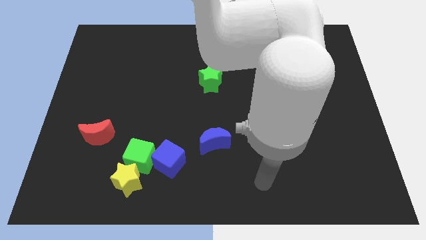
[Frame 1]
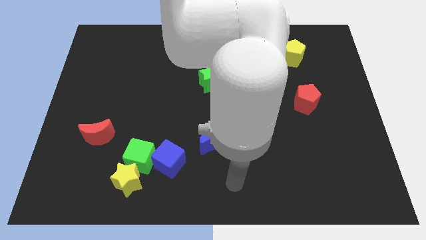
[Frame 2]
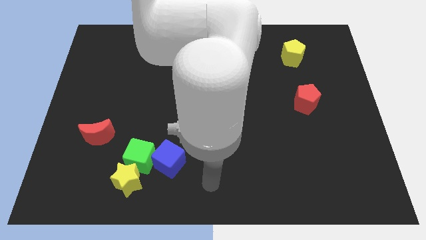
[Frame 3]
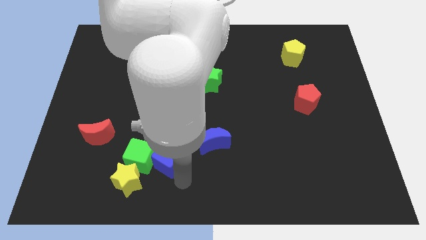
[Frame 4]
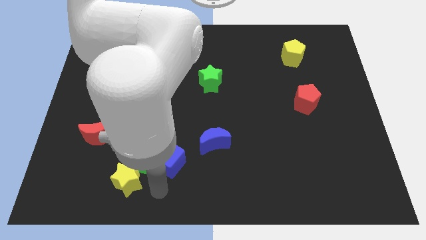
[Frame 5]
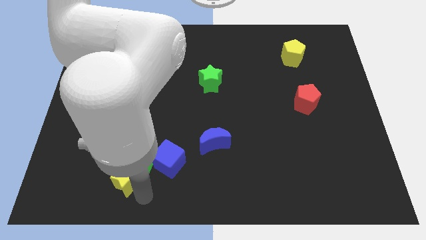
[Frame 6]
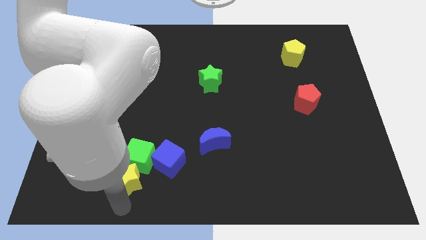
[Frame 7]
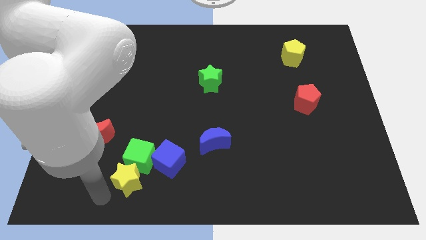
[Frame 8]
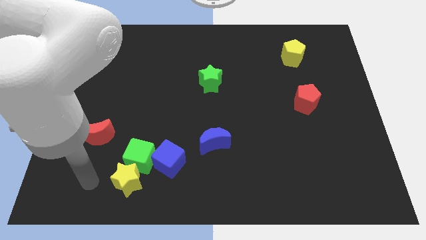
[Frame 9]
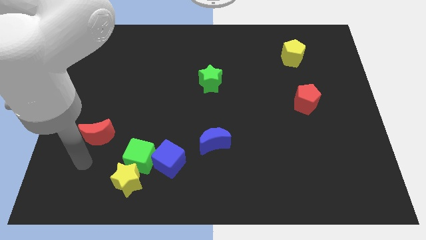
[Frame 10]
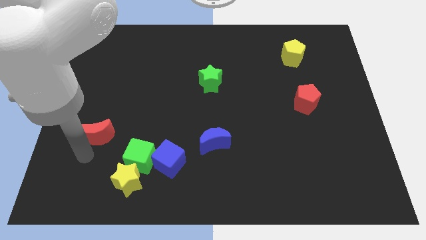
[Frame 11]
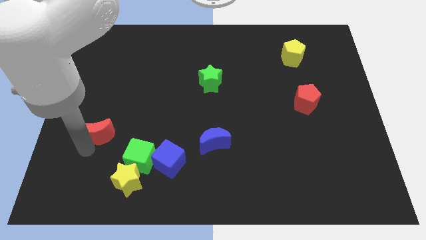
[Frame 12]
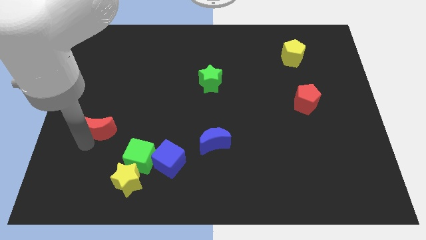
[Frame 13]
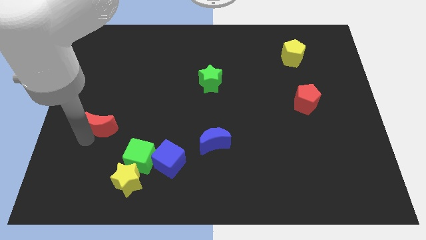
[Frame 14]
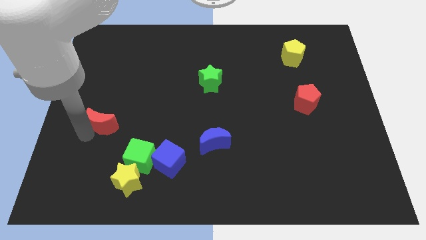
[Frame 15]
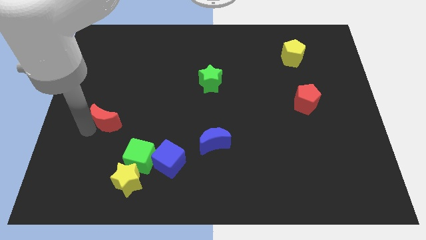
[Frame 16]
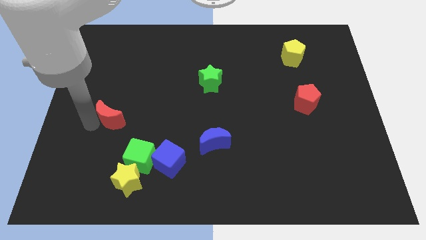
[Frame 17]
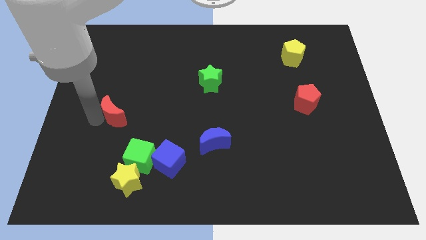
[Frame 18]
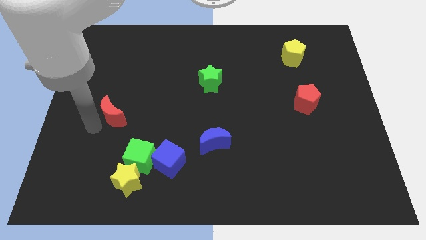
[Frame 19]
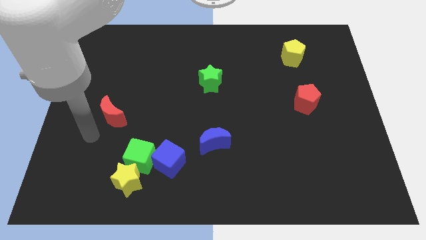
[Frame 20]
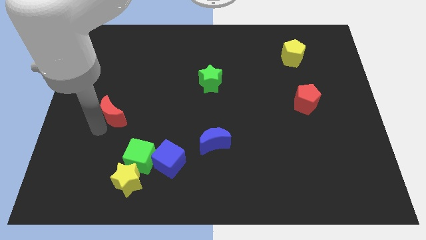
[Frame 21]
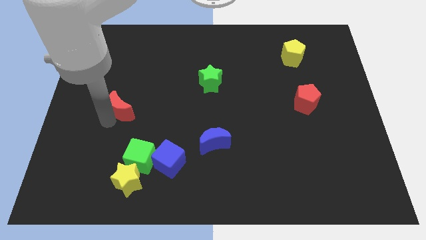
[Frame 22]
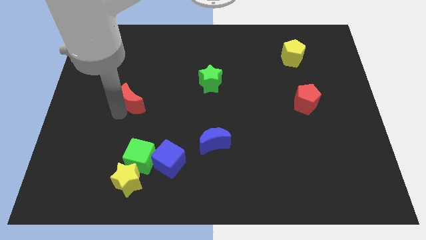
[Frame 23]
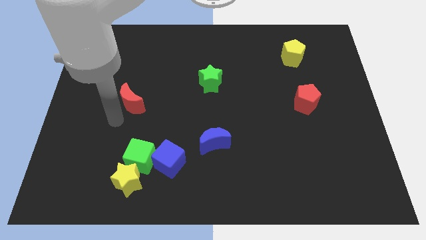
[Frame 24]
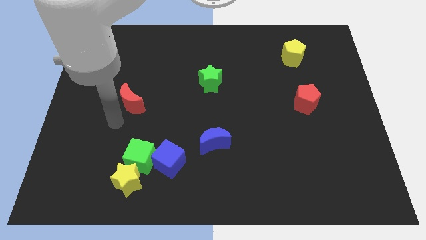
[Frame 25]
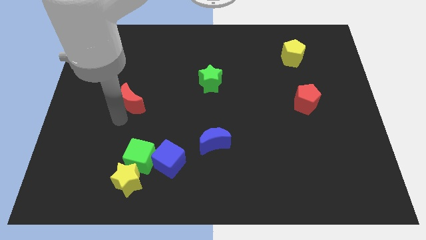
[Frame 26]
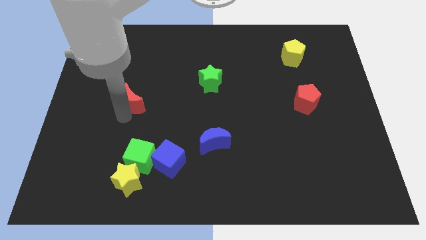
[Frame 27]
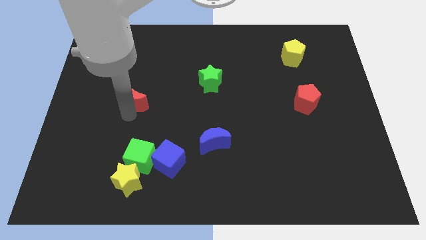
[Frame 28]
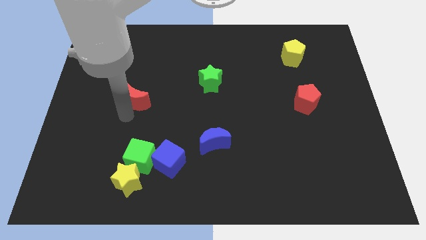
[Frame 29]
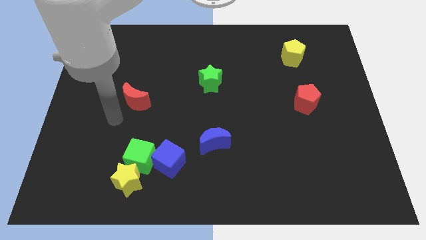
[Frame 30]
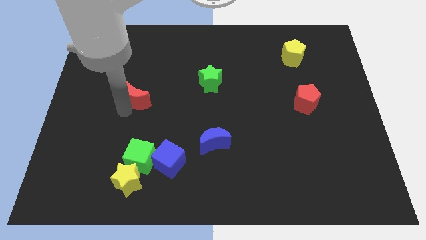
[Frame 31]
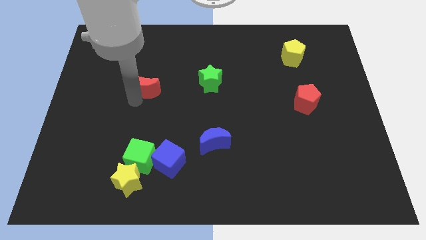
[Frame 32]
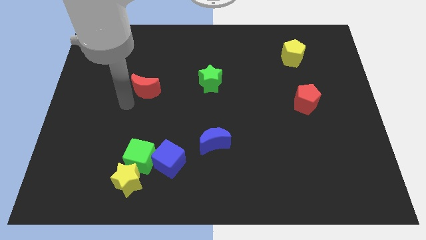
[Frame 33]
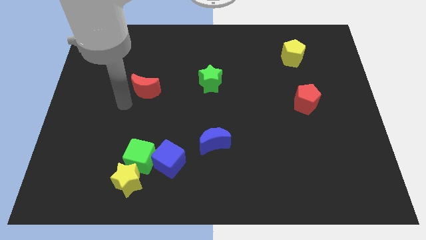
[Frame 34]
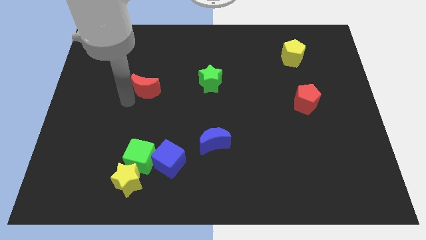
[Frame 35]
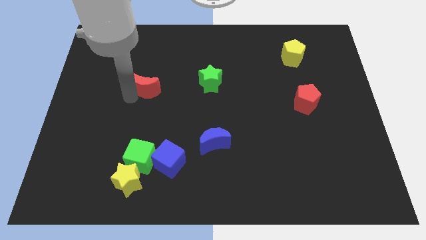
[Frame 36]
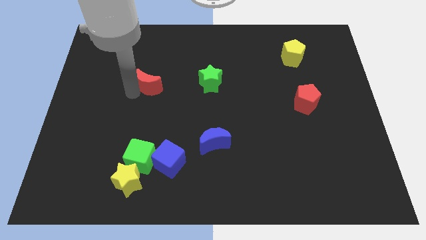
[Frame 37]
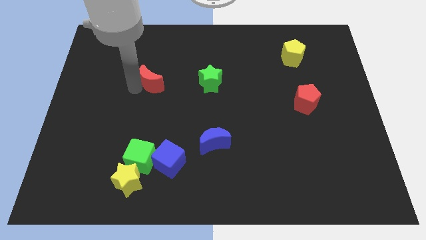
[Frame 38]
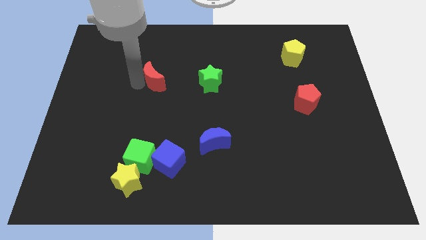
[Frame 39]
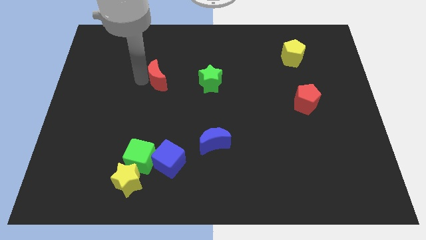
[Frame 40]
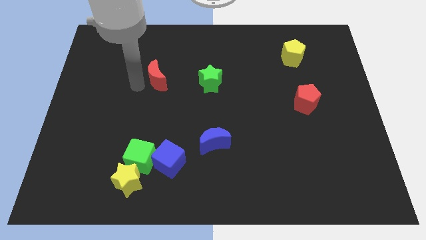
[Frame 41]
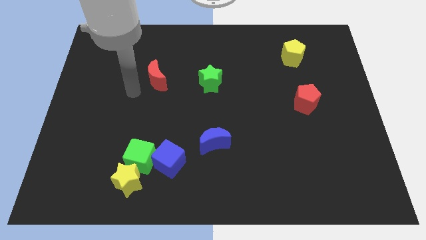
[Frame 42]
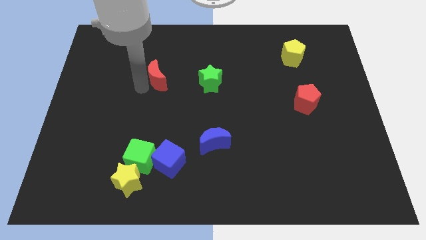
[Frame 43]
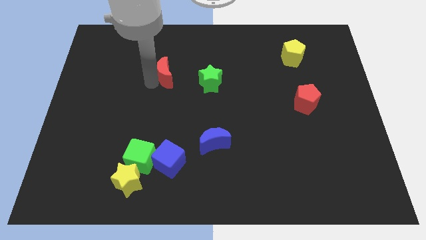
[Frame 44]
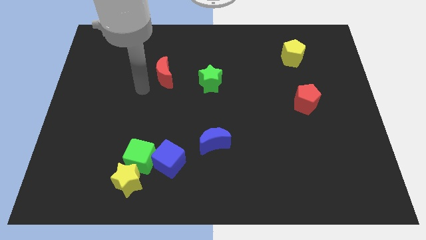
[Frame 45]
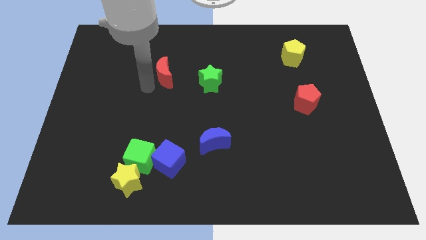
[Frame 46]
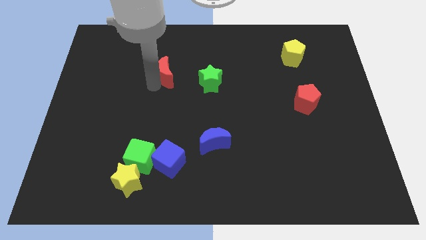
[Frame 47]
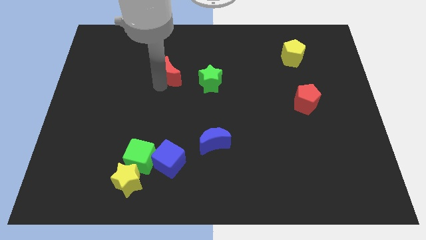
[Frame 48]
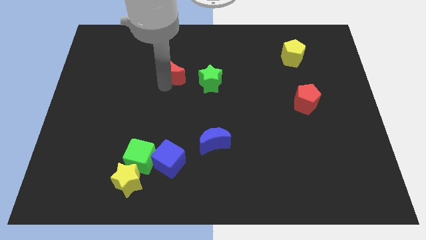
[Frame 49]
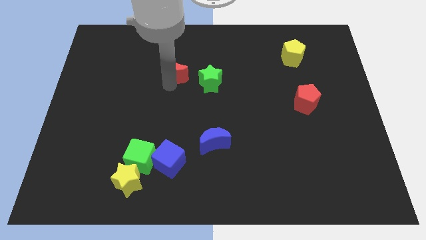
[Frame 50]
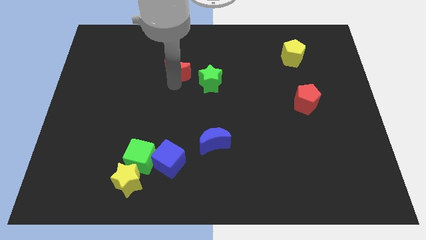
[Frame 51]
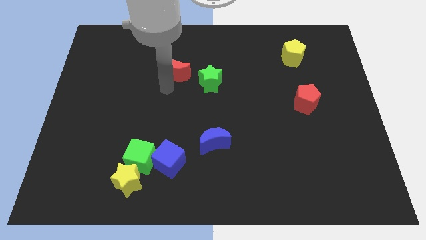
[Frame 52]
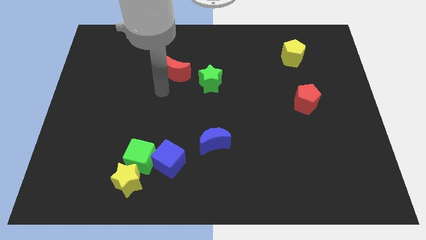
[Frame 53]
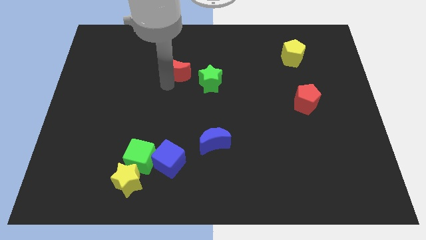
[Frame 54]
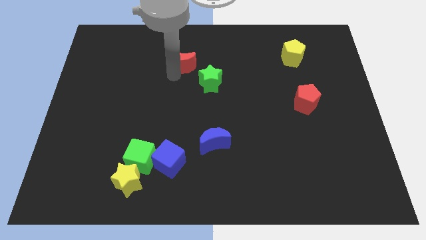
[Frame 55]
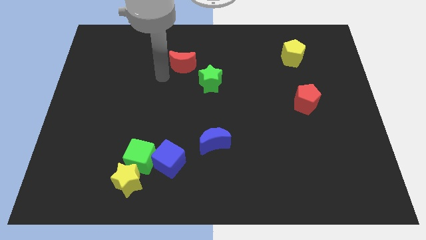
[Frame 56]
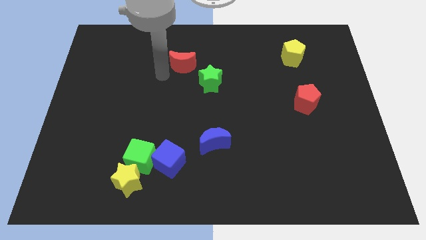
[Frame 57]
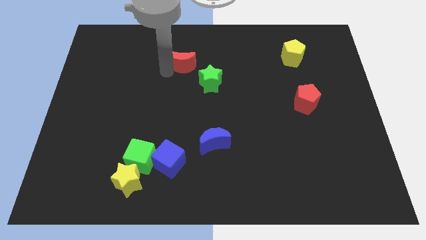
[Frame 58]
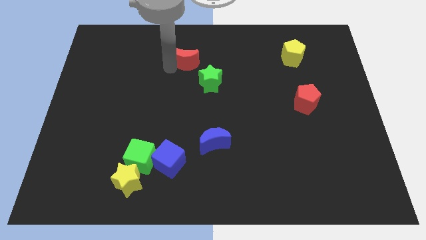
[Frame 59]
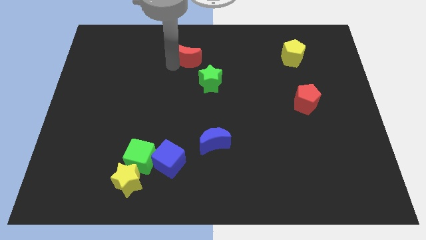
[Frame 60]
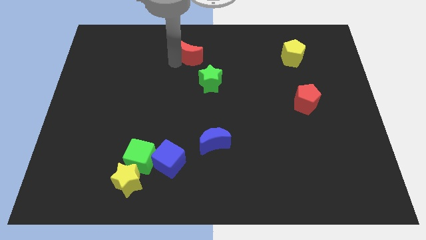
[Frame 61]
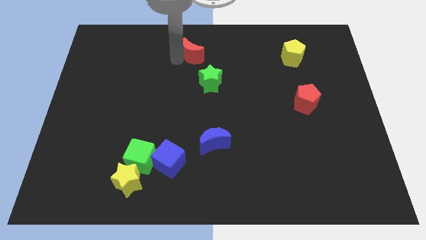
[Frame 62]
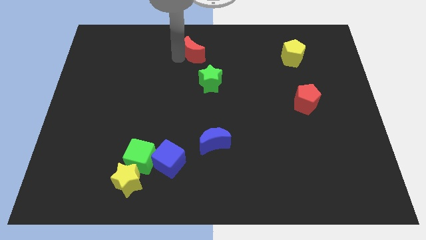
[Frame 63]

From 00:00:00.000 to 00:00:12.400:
slide the red moon to the top
